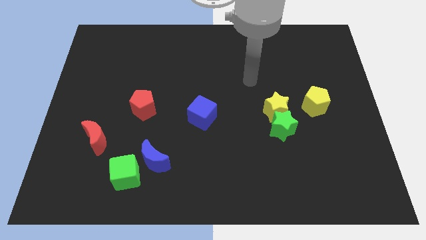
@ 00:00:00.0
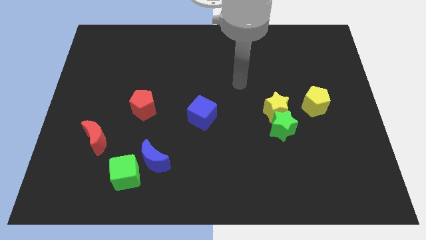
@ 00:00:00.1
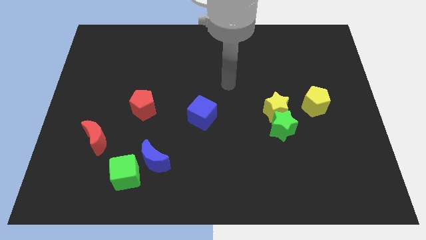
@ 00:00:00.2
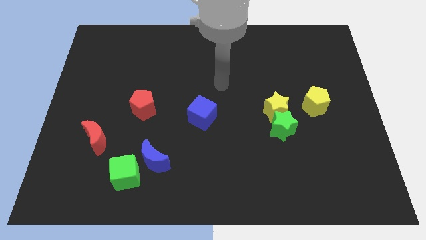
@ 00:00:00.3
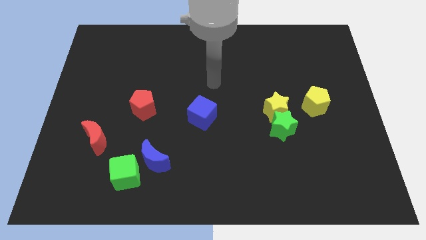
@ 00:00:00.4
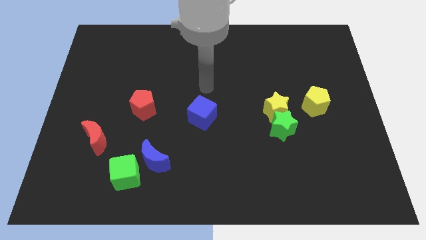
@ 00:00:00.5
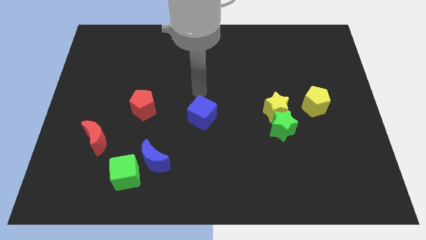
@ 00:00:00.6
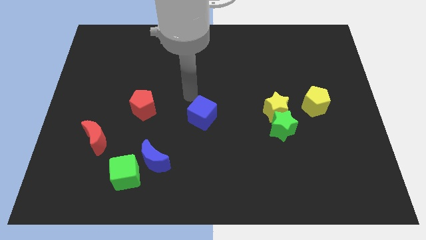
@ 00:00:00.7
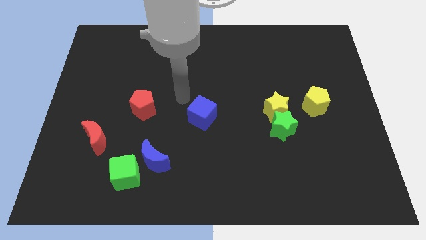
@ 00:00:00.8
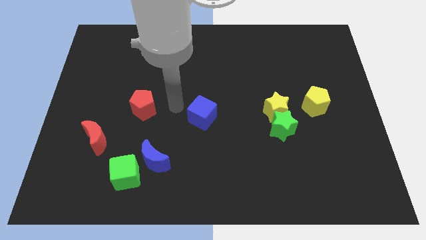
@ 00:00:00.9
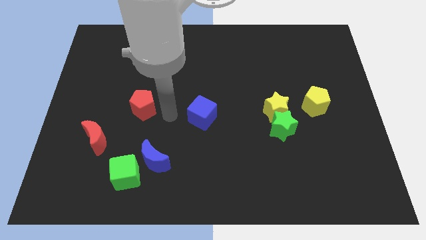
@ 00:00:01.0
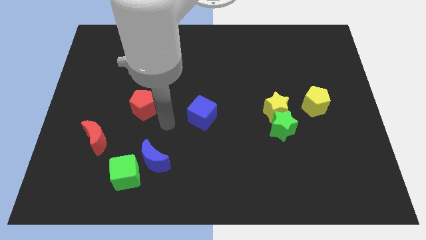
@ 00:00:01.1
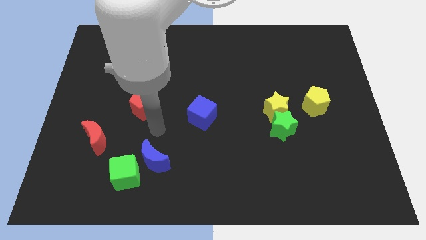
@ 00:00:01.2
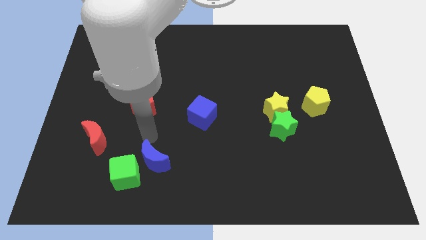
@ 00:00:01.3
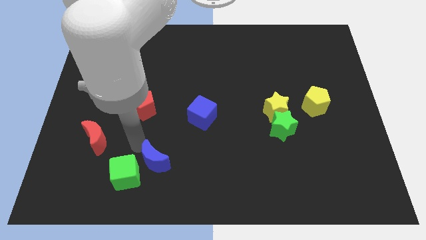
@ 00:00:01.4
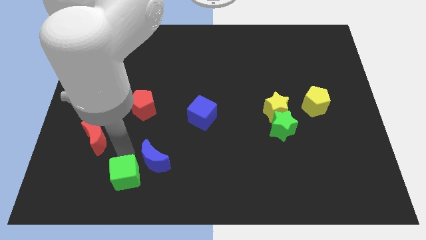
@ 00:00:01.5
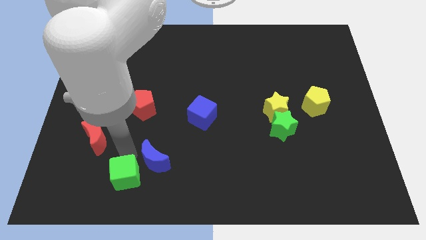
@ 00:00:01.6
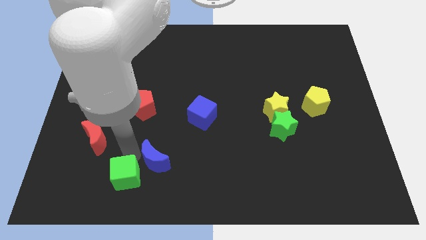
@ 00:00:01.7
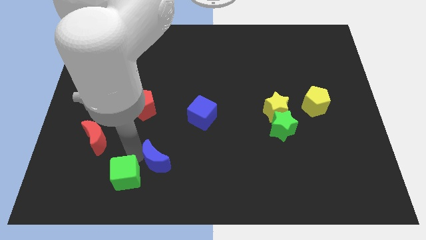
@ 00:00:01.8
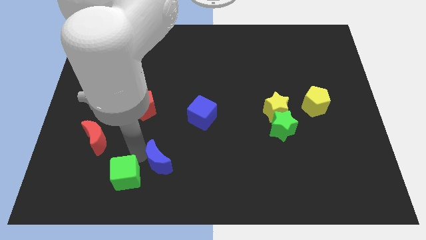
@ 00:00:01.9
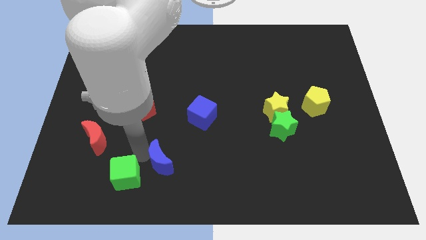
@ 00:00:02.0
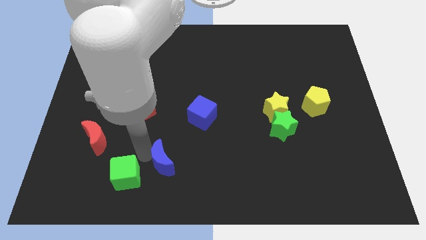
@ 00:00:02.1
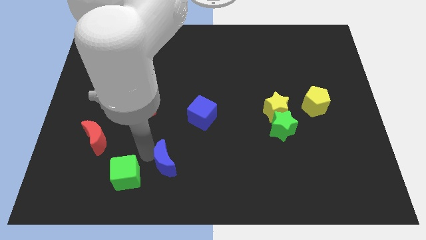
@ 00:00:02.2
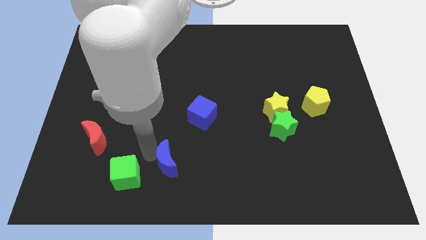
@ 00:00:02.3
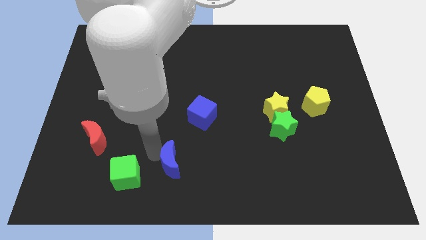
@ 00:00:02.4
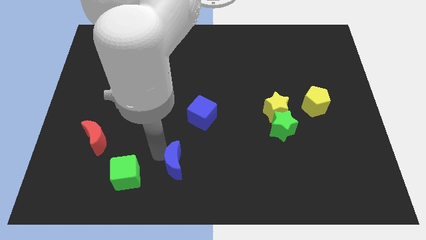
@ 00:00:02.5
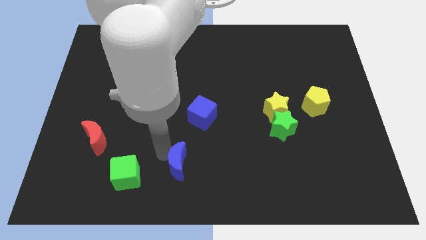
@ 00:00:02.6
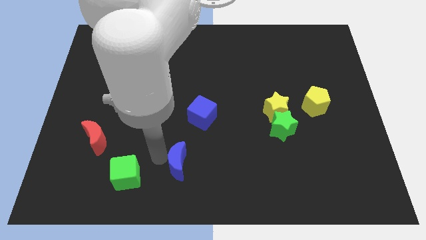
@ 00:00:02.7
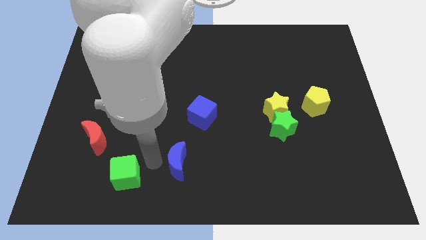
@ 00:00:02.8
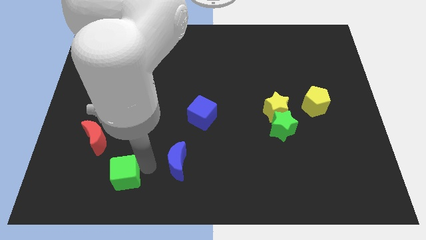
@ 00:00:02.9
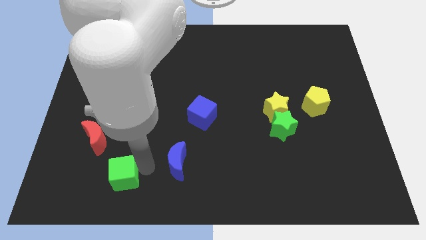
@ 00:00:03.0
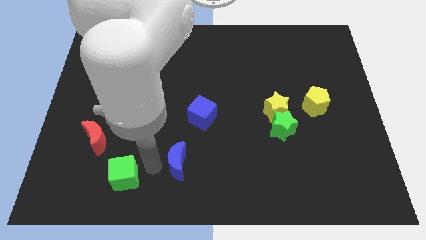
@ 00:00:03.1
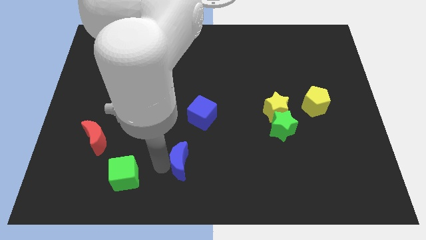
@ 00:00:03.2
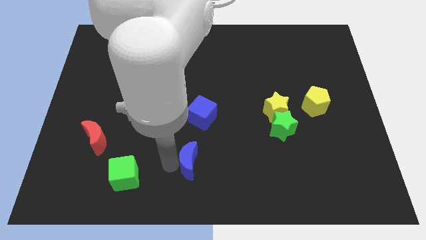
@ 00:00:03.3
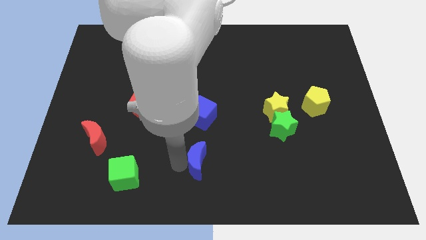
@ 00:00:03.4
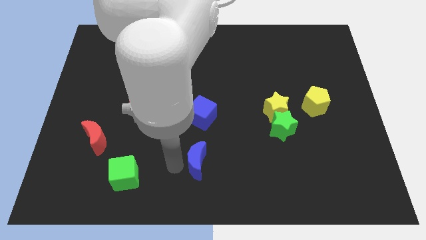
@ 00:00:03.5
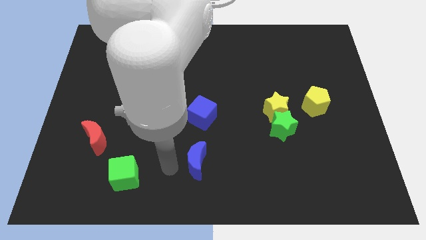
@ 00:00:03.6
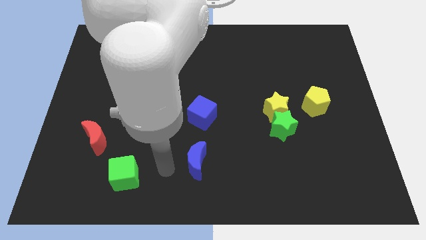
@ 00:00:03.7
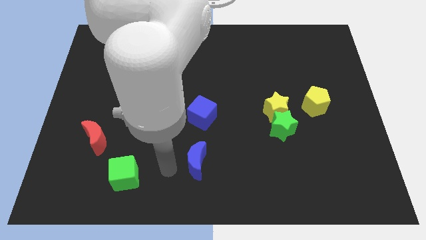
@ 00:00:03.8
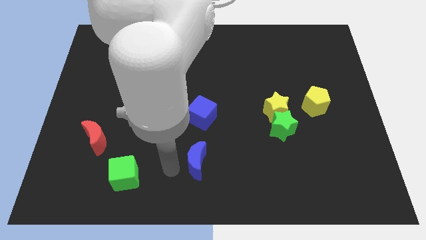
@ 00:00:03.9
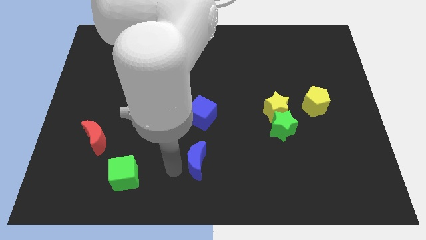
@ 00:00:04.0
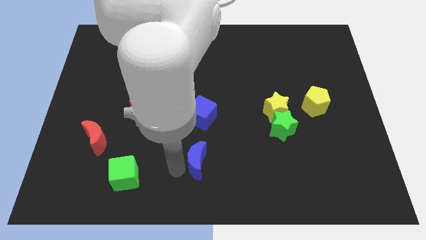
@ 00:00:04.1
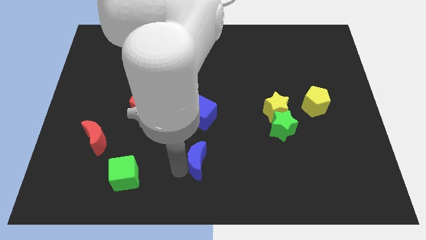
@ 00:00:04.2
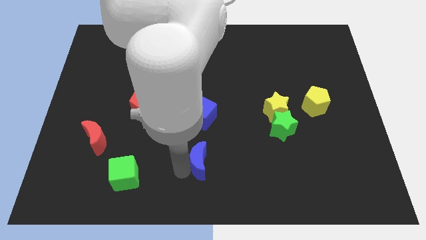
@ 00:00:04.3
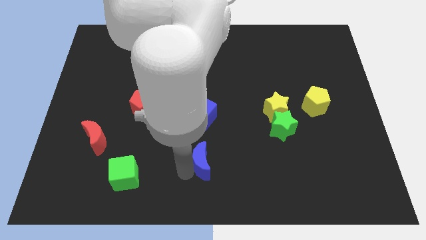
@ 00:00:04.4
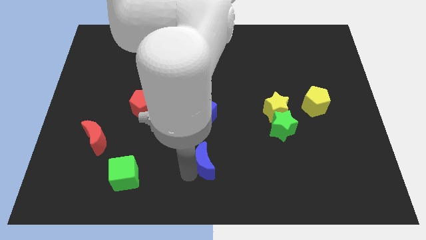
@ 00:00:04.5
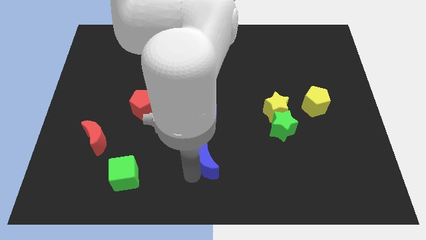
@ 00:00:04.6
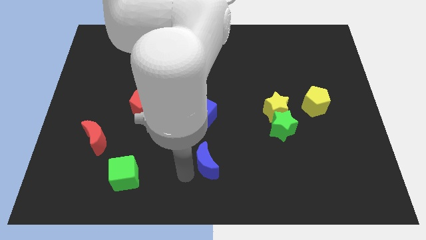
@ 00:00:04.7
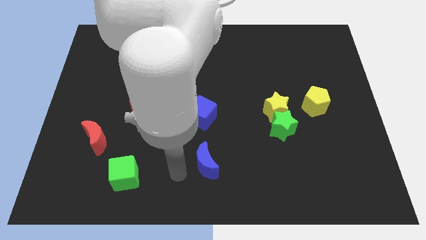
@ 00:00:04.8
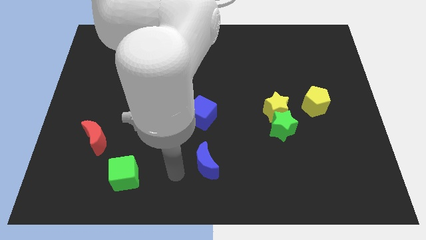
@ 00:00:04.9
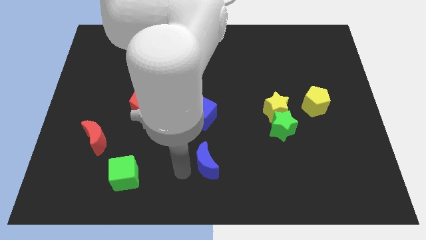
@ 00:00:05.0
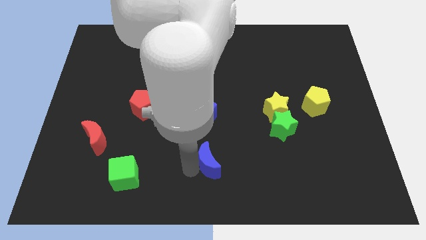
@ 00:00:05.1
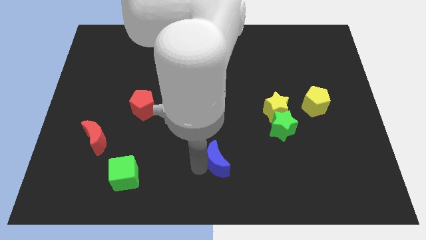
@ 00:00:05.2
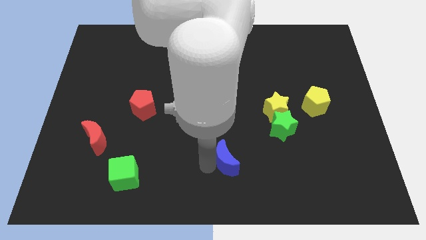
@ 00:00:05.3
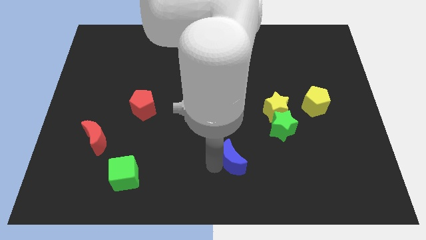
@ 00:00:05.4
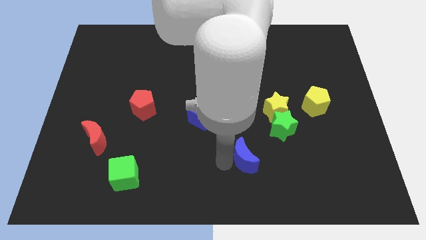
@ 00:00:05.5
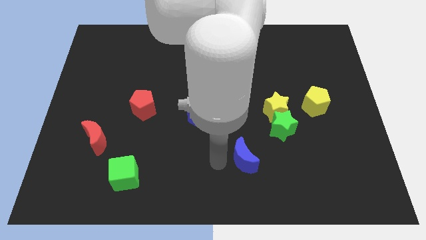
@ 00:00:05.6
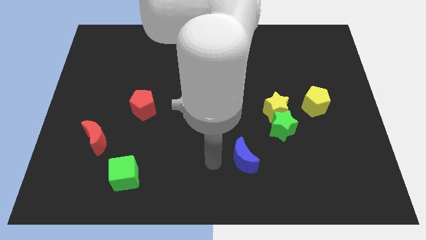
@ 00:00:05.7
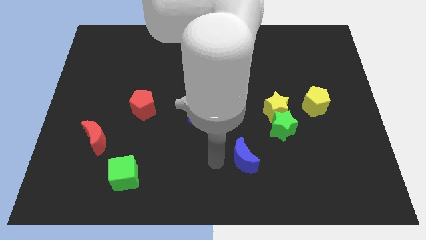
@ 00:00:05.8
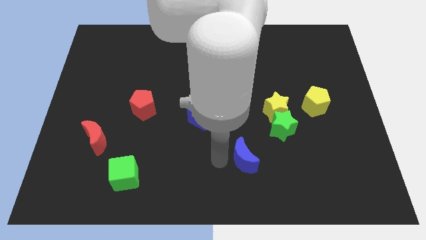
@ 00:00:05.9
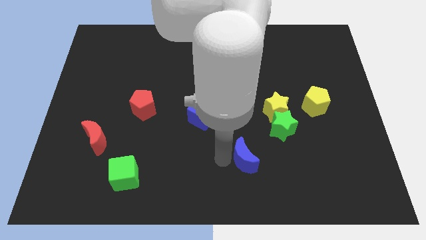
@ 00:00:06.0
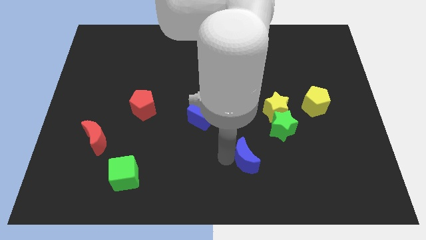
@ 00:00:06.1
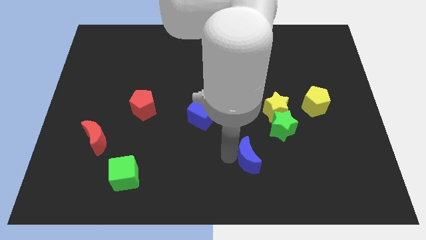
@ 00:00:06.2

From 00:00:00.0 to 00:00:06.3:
push the blue moon right

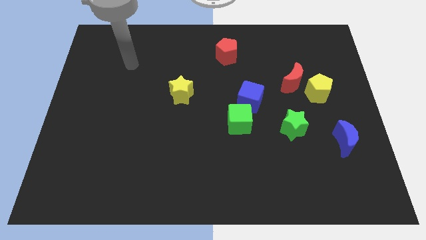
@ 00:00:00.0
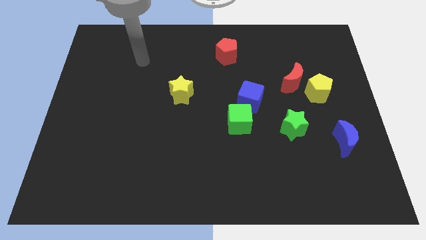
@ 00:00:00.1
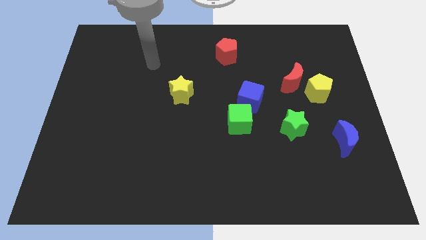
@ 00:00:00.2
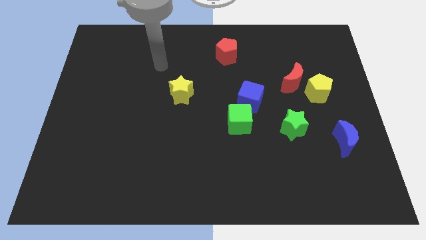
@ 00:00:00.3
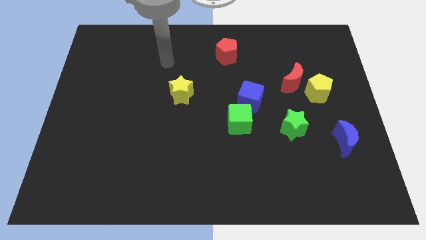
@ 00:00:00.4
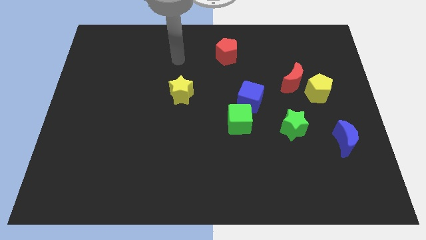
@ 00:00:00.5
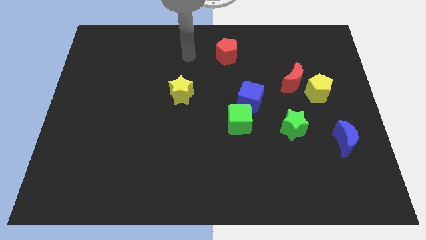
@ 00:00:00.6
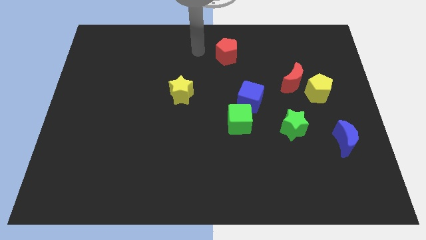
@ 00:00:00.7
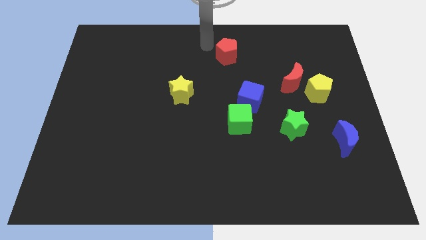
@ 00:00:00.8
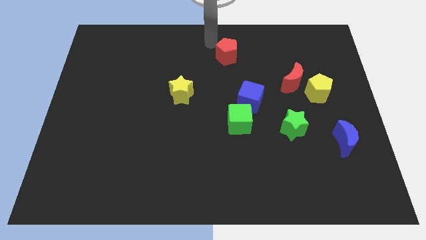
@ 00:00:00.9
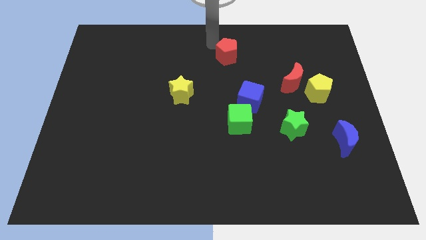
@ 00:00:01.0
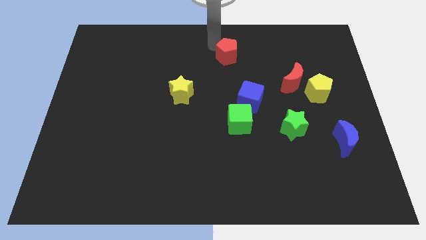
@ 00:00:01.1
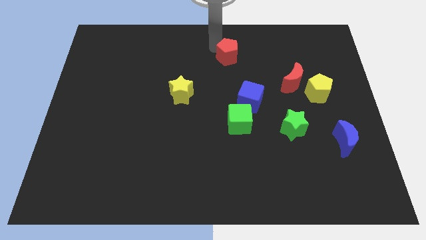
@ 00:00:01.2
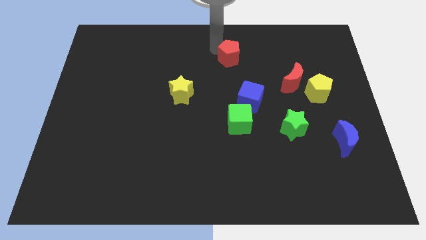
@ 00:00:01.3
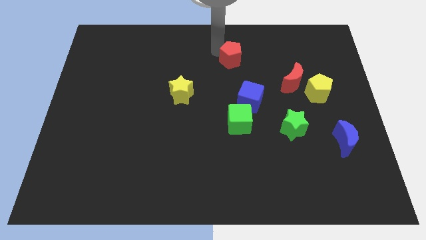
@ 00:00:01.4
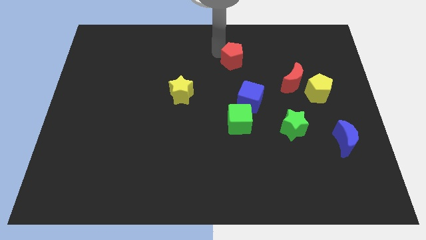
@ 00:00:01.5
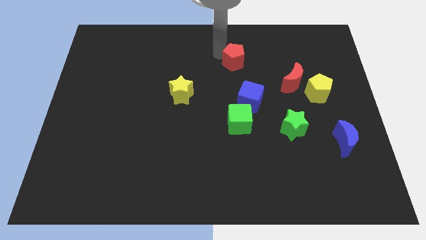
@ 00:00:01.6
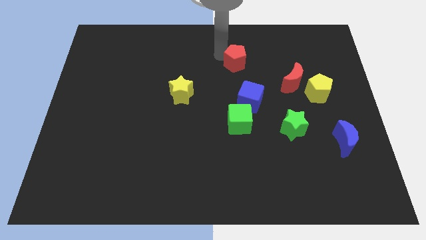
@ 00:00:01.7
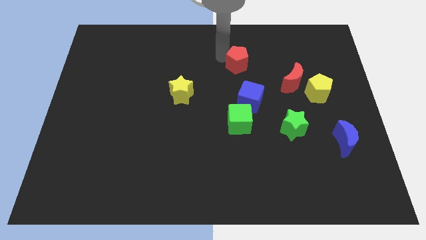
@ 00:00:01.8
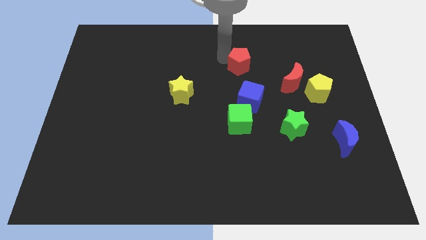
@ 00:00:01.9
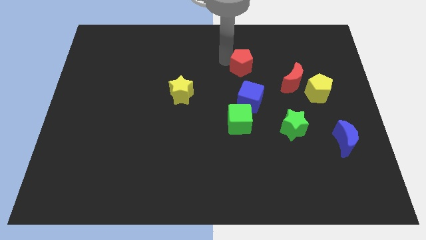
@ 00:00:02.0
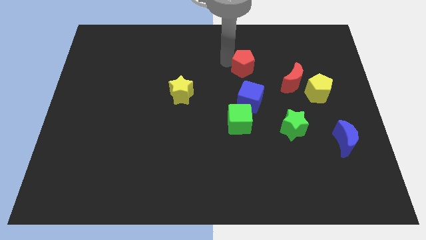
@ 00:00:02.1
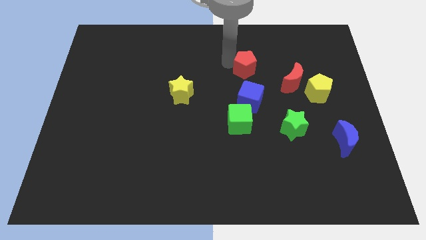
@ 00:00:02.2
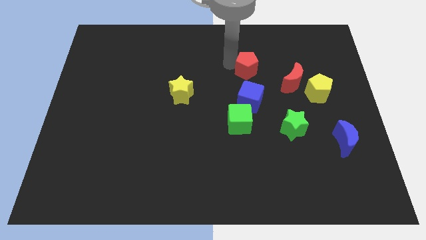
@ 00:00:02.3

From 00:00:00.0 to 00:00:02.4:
move the red pentagon a little bit down and right
